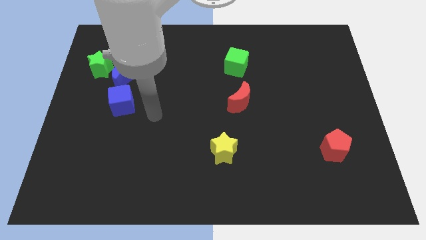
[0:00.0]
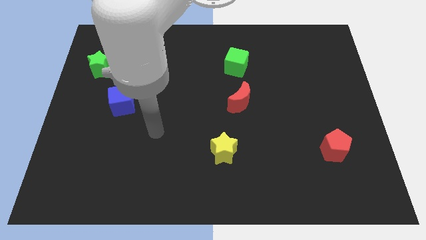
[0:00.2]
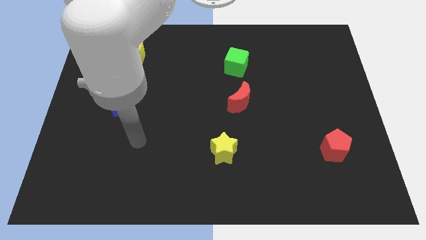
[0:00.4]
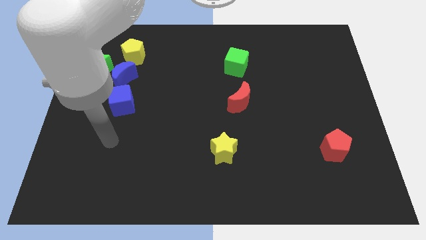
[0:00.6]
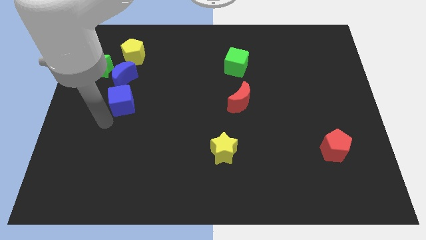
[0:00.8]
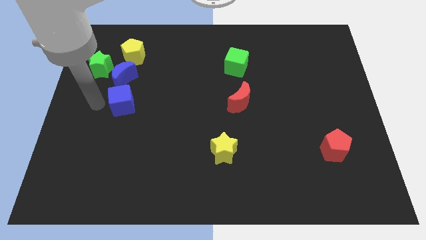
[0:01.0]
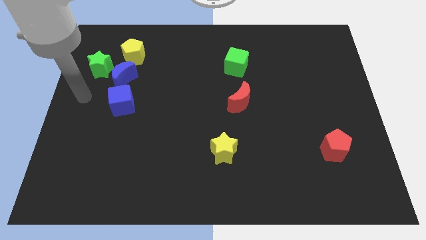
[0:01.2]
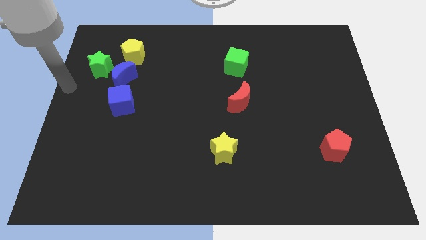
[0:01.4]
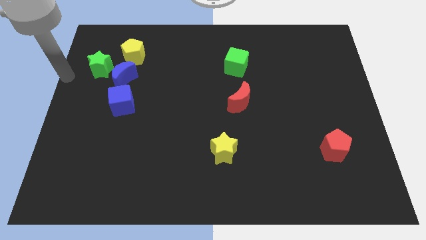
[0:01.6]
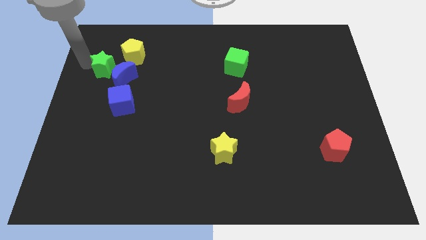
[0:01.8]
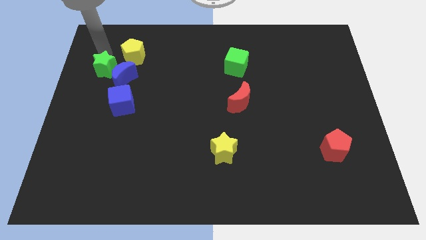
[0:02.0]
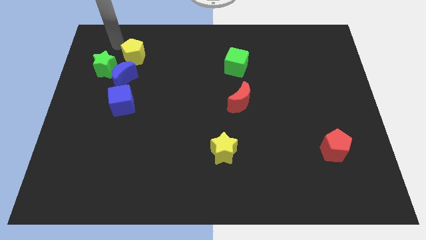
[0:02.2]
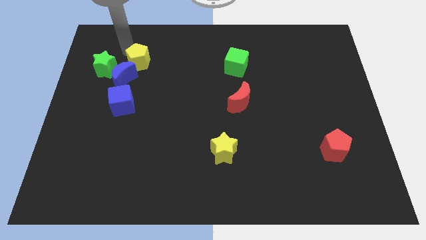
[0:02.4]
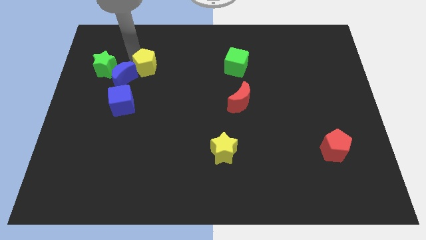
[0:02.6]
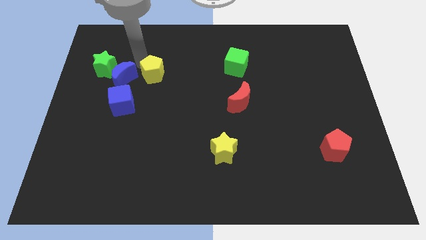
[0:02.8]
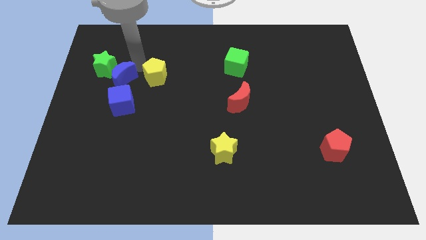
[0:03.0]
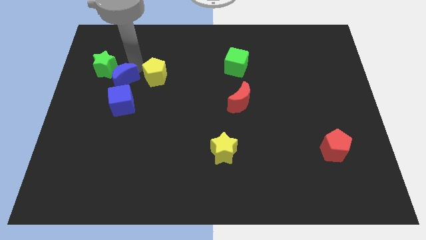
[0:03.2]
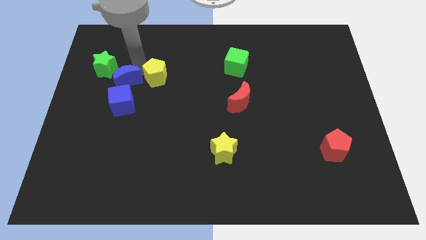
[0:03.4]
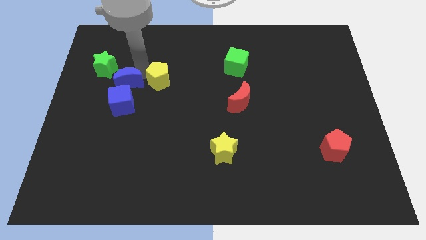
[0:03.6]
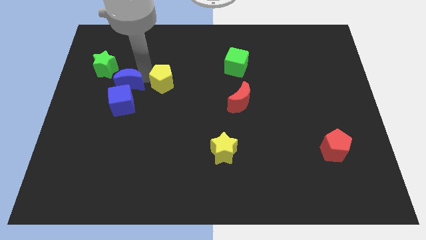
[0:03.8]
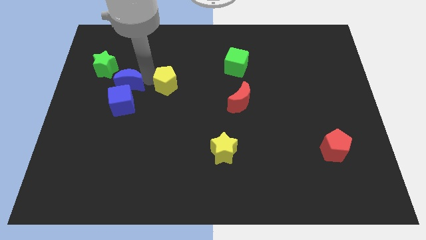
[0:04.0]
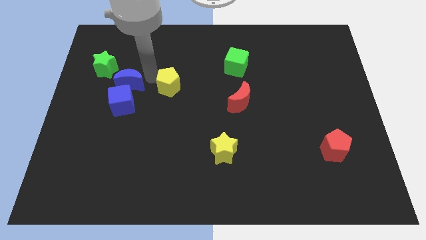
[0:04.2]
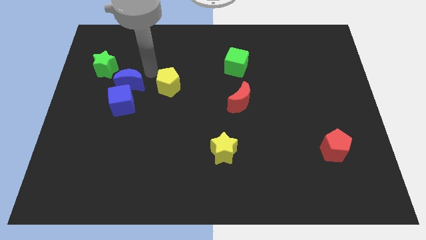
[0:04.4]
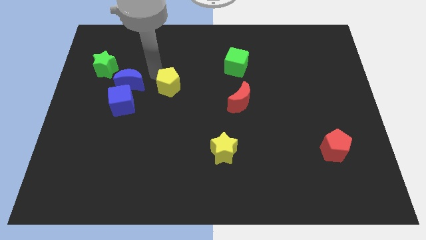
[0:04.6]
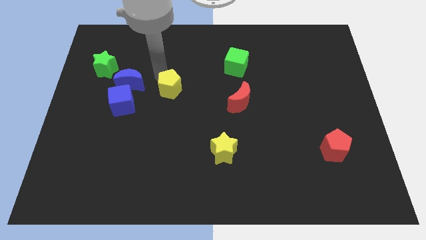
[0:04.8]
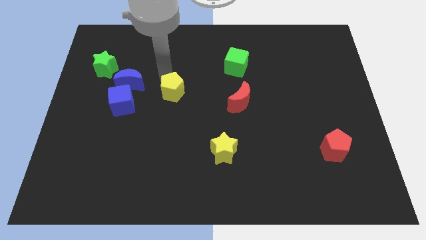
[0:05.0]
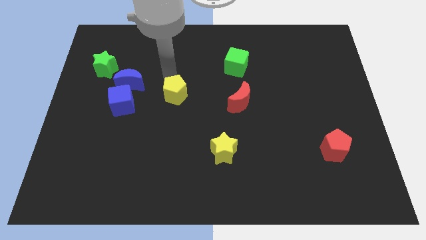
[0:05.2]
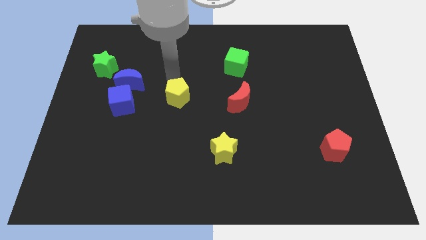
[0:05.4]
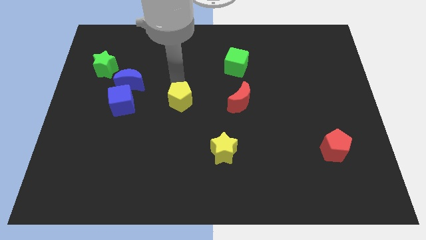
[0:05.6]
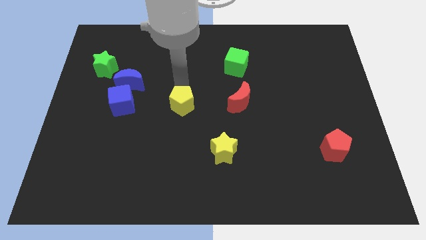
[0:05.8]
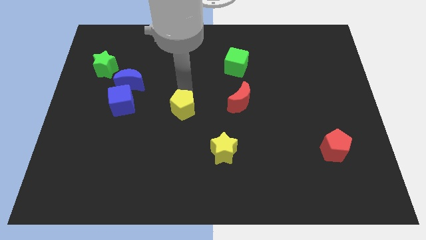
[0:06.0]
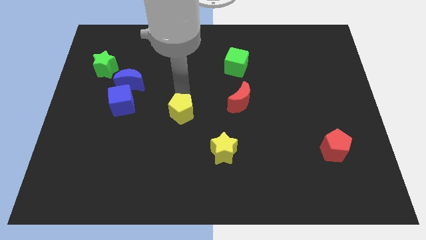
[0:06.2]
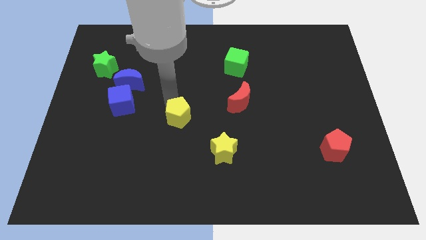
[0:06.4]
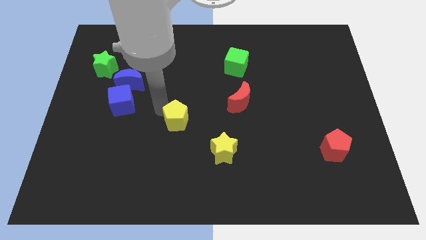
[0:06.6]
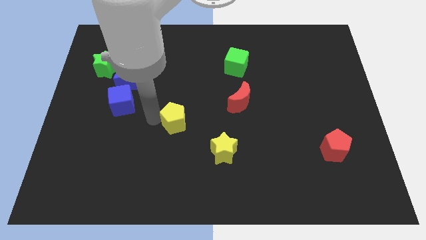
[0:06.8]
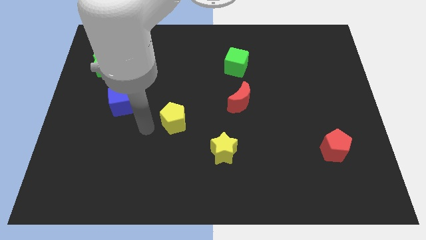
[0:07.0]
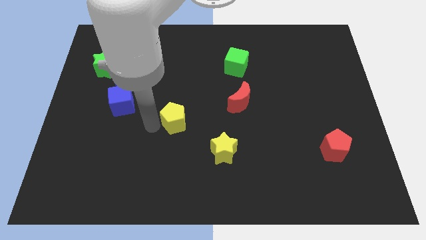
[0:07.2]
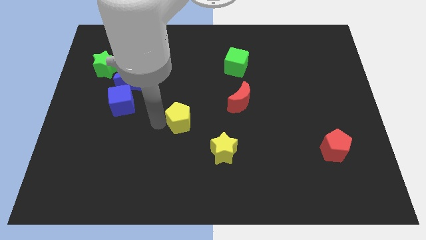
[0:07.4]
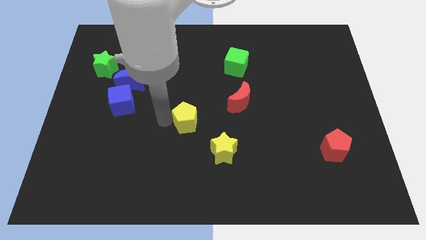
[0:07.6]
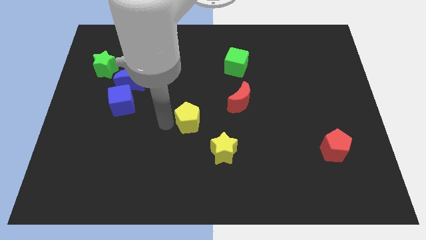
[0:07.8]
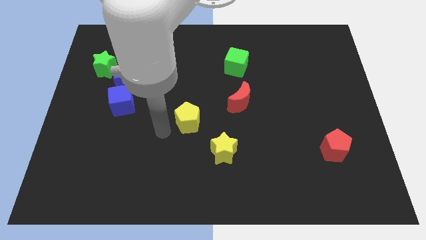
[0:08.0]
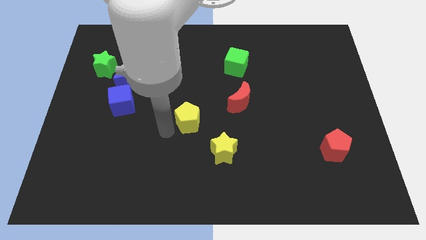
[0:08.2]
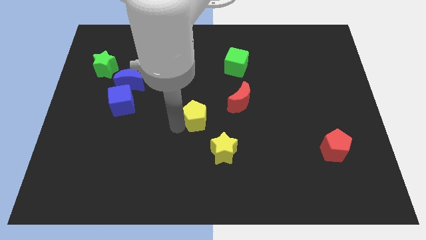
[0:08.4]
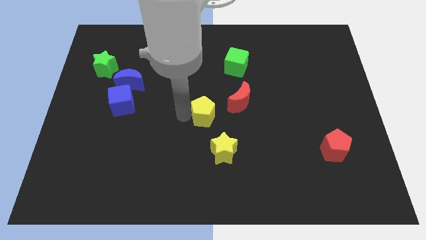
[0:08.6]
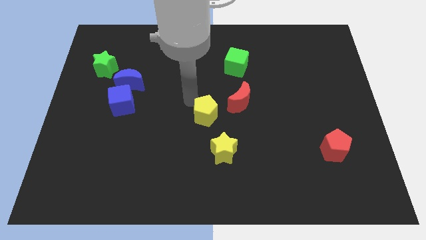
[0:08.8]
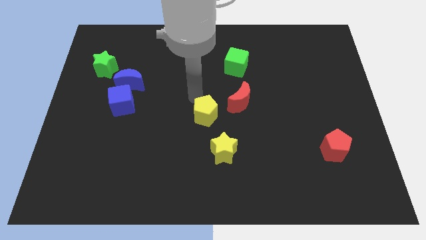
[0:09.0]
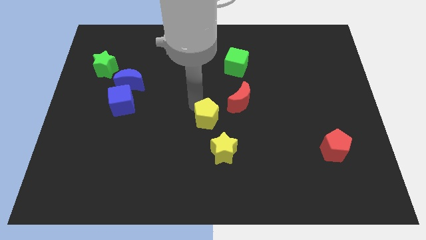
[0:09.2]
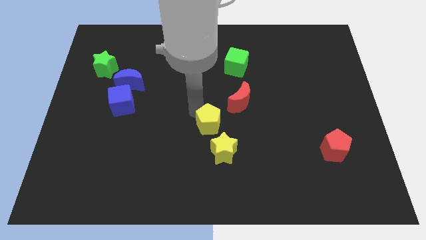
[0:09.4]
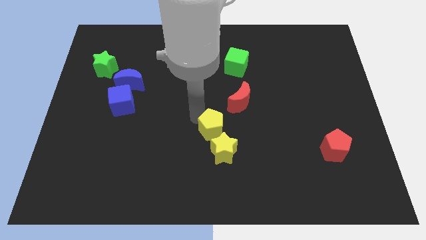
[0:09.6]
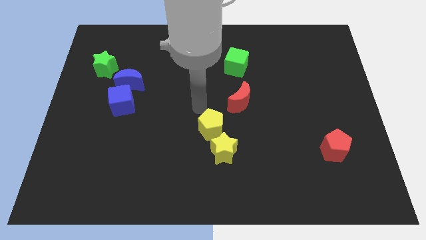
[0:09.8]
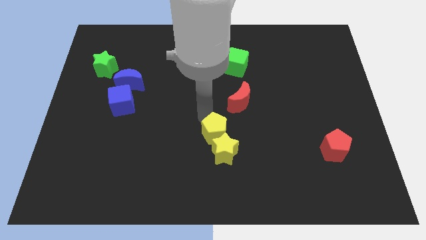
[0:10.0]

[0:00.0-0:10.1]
move the yellow pentagon to the yellow star

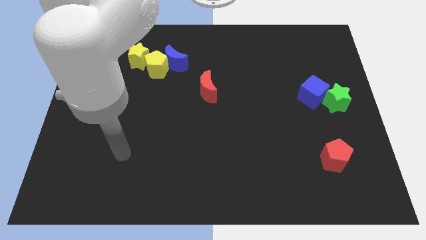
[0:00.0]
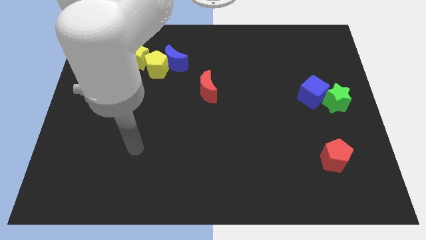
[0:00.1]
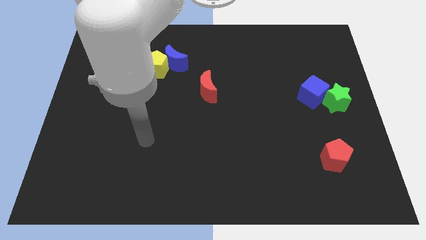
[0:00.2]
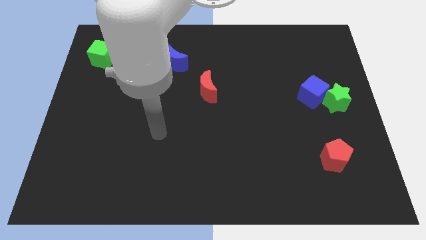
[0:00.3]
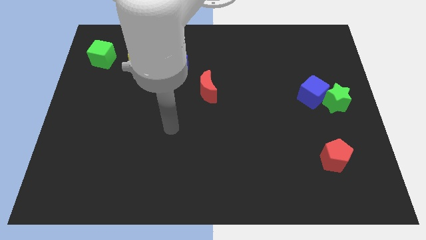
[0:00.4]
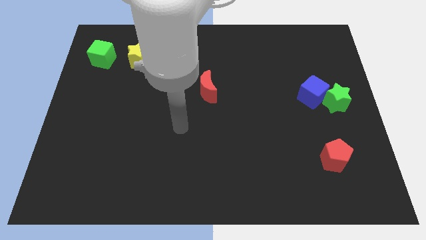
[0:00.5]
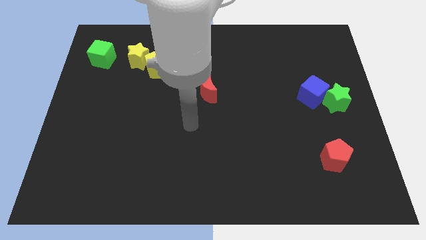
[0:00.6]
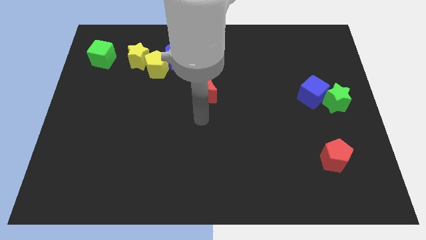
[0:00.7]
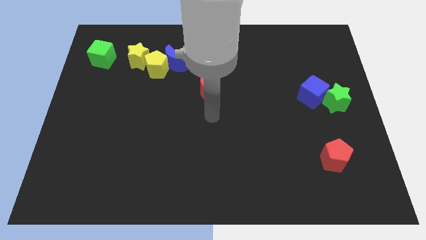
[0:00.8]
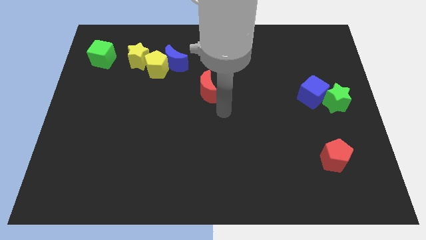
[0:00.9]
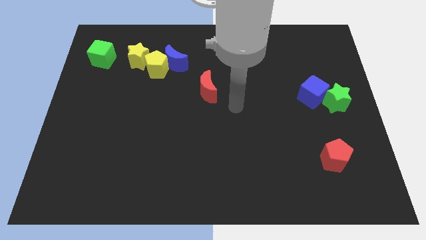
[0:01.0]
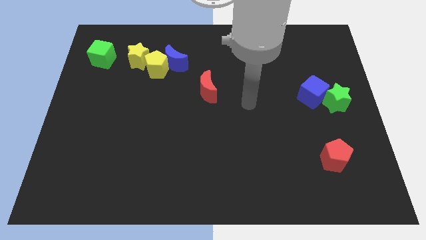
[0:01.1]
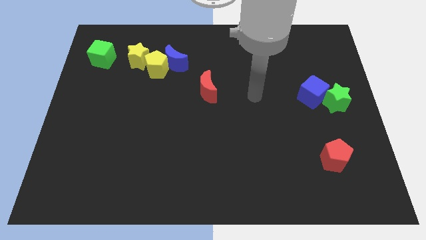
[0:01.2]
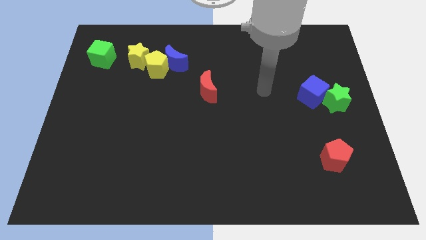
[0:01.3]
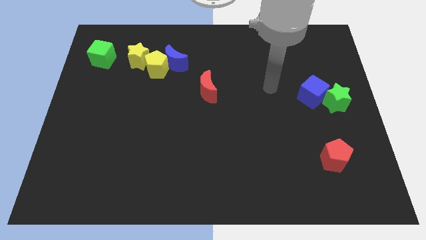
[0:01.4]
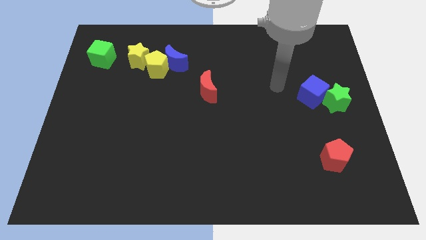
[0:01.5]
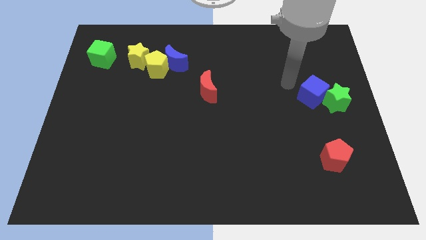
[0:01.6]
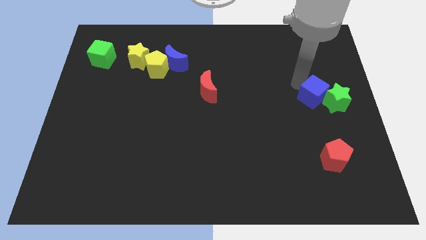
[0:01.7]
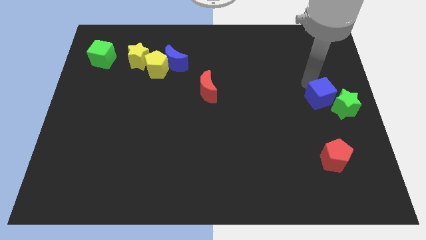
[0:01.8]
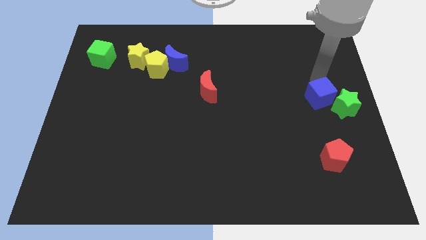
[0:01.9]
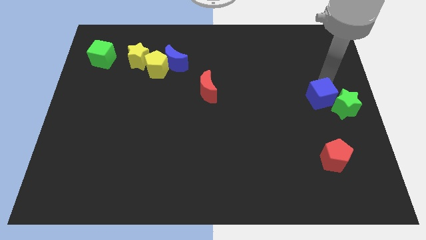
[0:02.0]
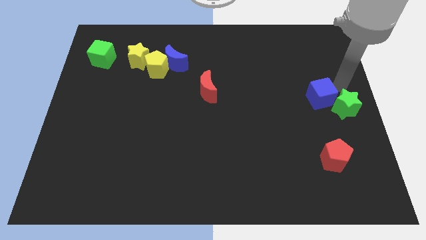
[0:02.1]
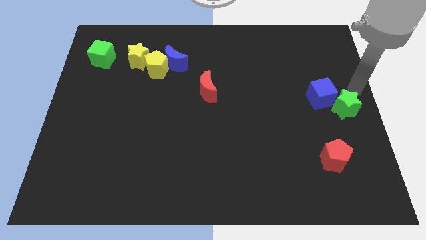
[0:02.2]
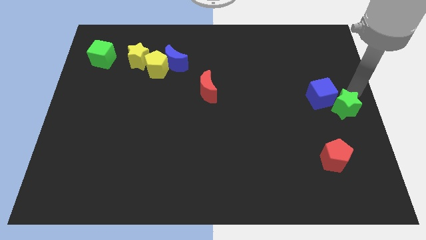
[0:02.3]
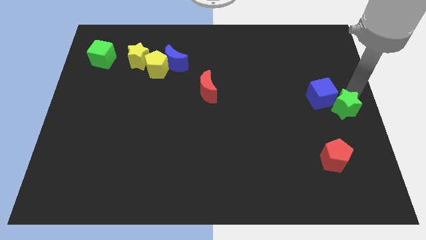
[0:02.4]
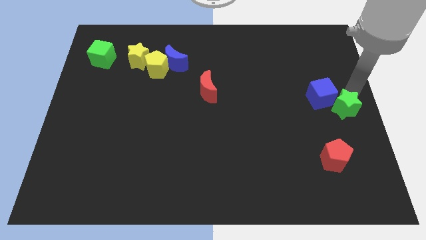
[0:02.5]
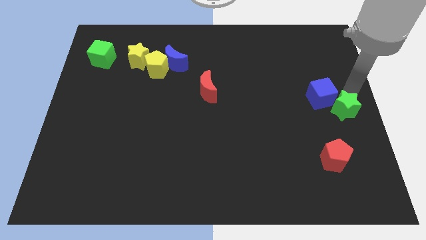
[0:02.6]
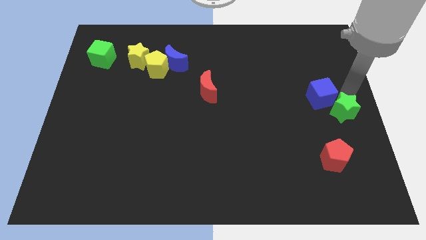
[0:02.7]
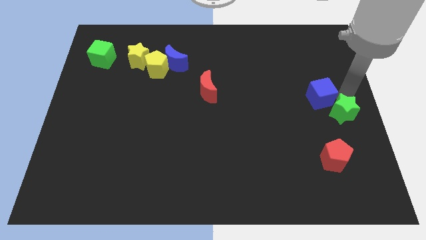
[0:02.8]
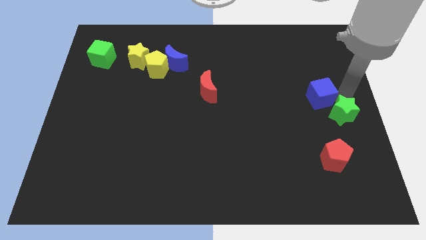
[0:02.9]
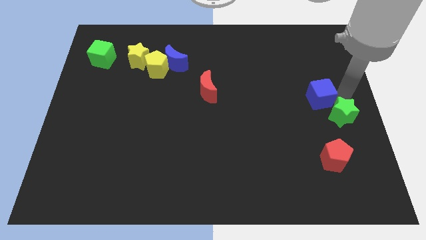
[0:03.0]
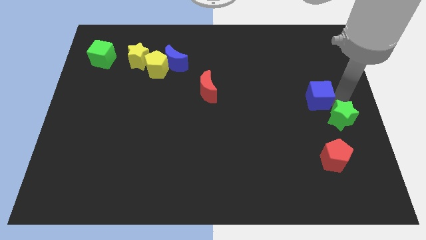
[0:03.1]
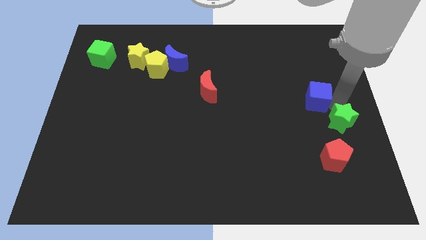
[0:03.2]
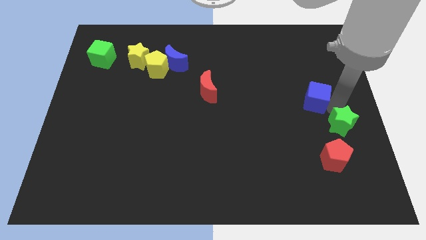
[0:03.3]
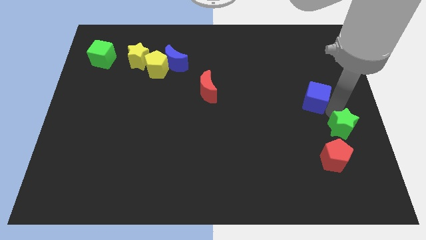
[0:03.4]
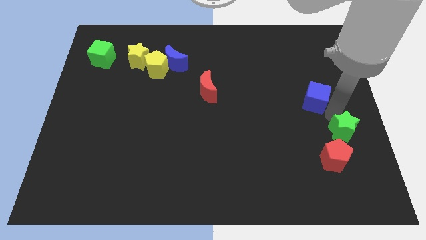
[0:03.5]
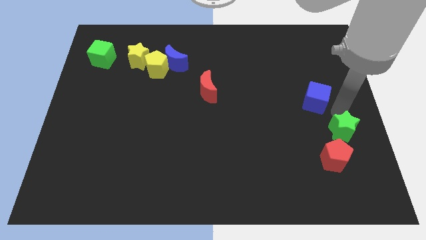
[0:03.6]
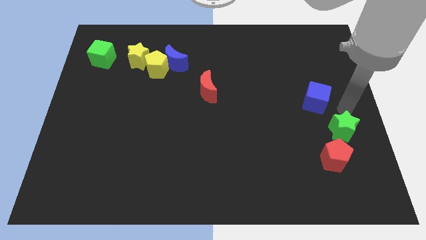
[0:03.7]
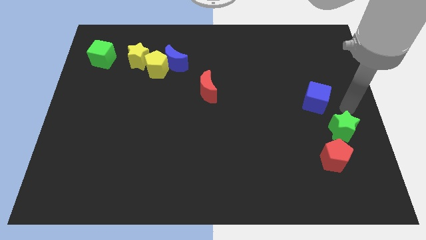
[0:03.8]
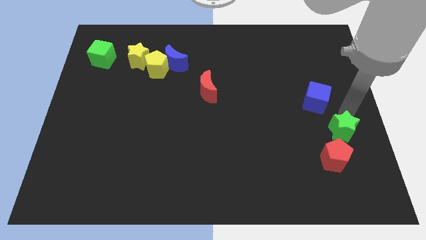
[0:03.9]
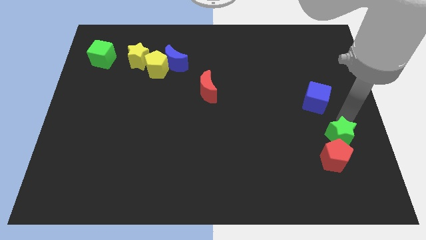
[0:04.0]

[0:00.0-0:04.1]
move the green star towards the red pentagon
